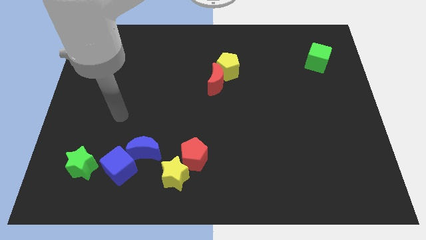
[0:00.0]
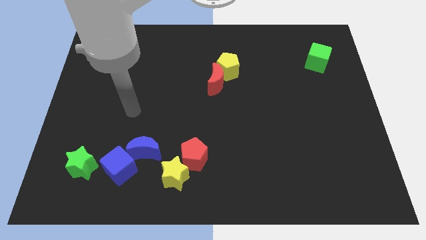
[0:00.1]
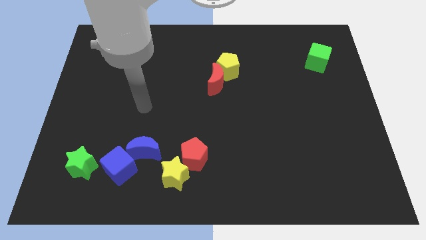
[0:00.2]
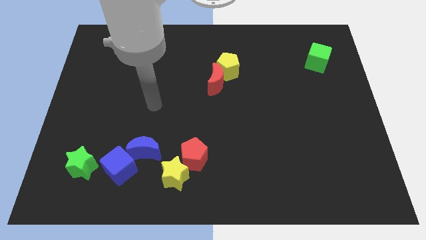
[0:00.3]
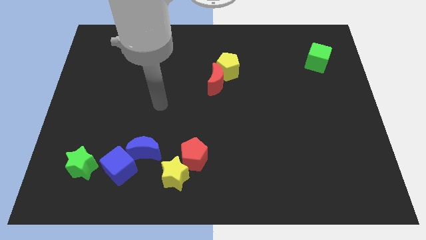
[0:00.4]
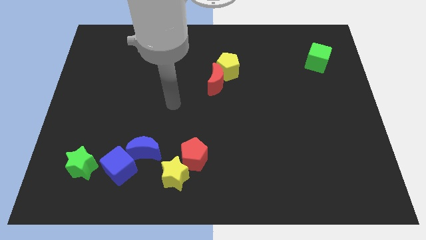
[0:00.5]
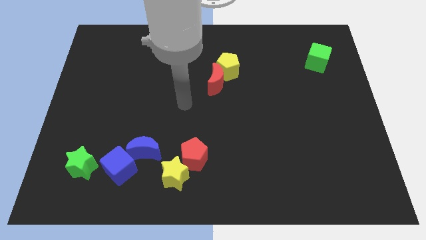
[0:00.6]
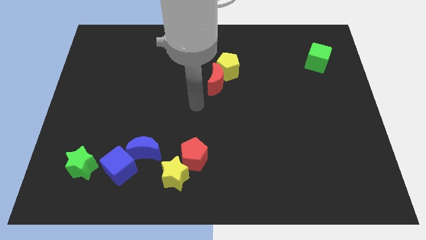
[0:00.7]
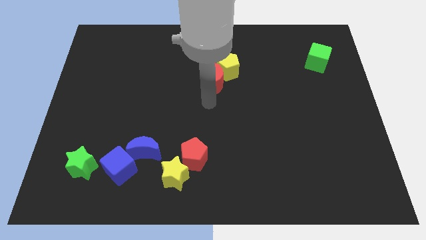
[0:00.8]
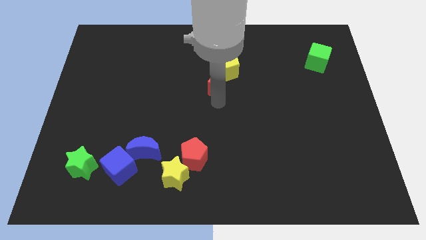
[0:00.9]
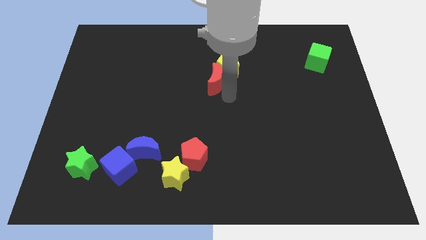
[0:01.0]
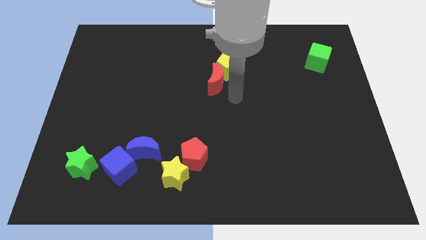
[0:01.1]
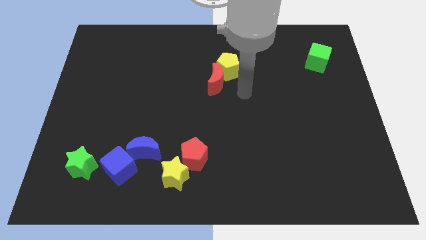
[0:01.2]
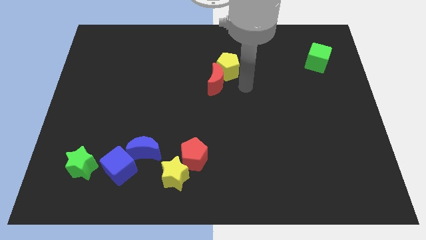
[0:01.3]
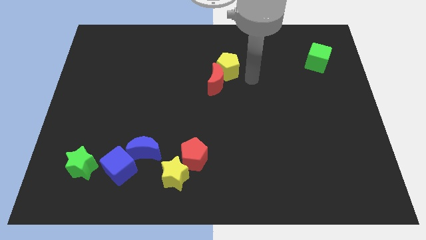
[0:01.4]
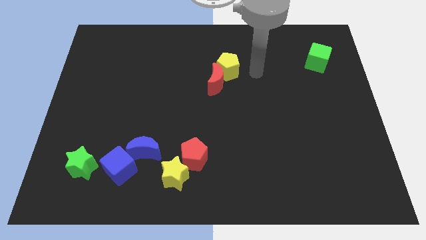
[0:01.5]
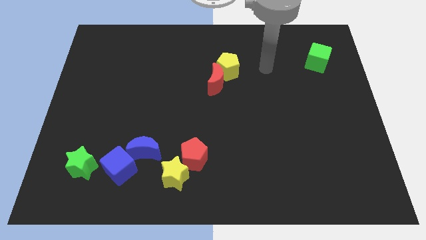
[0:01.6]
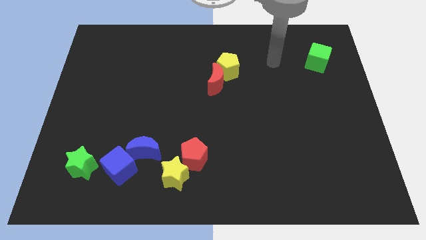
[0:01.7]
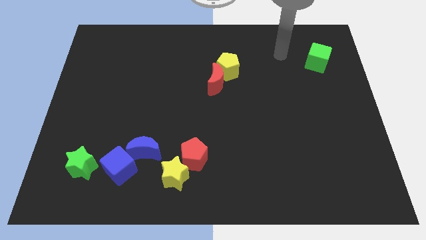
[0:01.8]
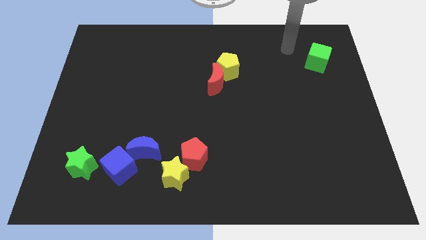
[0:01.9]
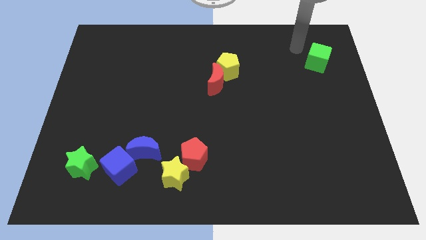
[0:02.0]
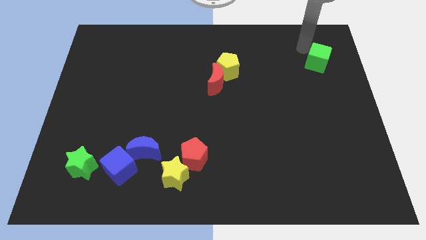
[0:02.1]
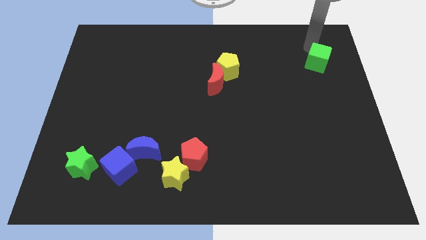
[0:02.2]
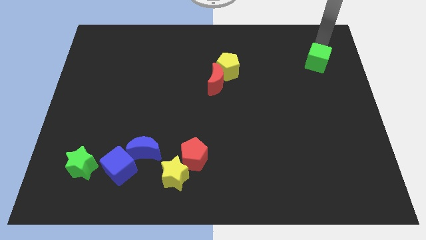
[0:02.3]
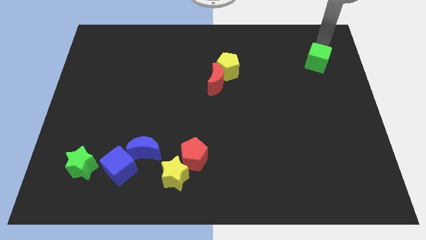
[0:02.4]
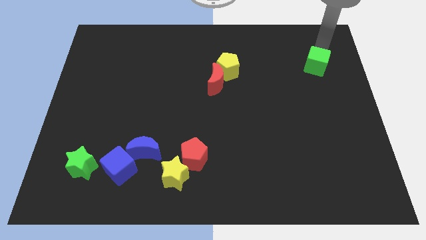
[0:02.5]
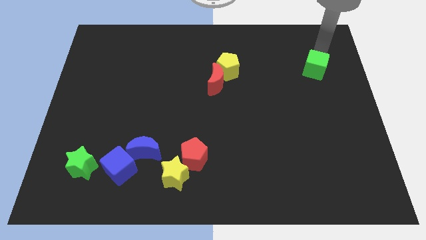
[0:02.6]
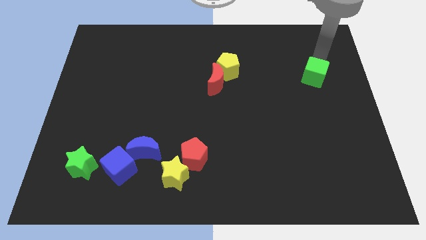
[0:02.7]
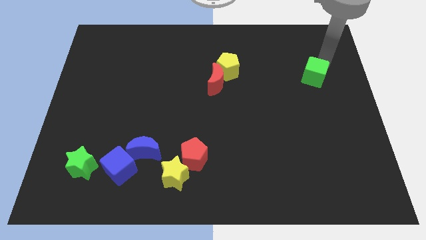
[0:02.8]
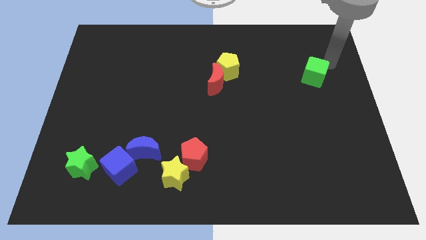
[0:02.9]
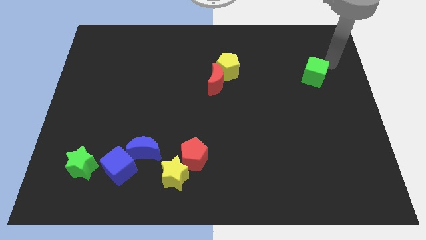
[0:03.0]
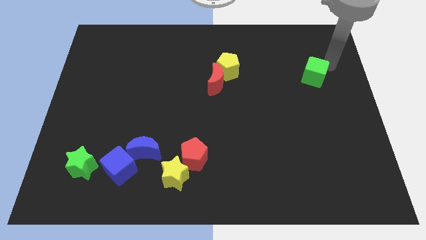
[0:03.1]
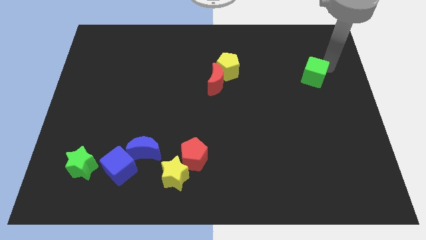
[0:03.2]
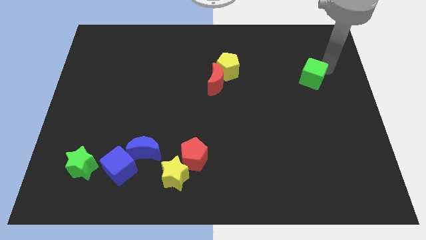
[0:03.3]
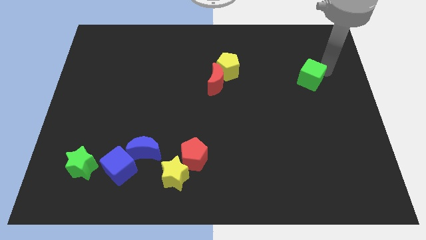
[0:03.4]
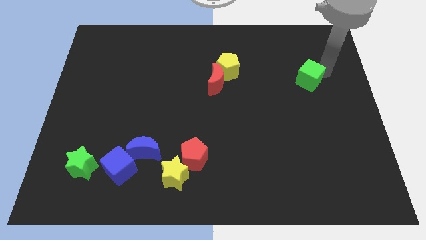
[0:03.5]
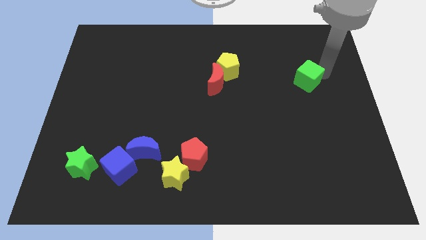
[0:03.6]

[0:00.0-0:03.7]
slightly push the green cube down and then to the left

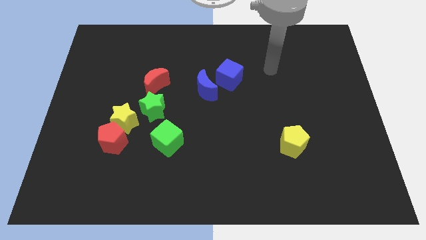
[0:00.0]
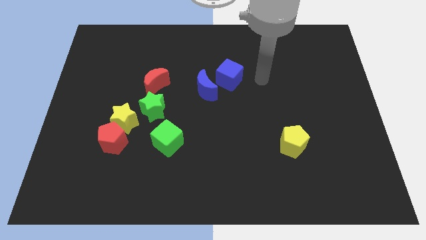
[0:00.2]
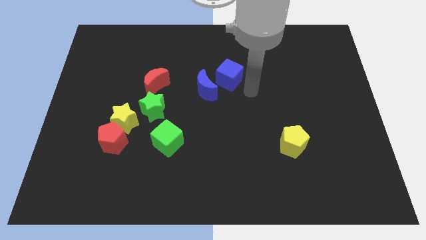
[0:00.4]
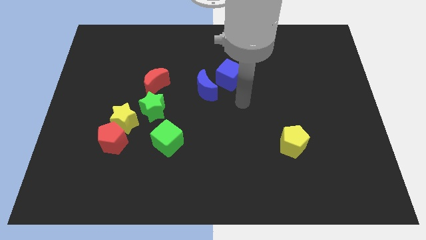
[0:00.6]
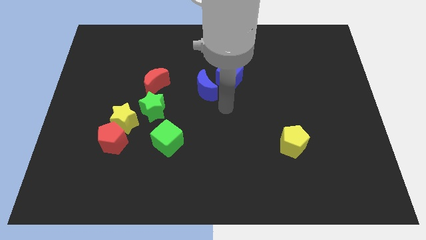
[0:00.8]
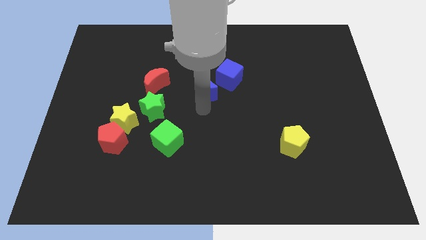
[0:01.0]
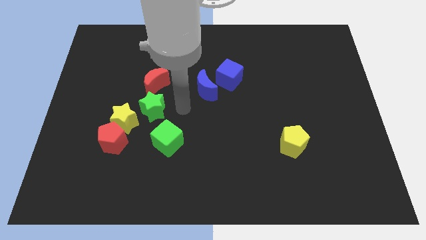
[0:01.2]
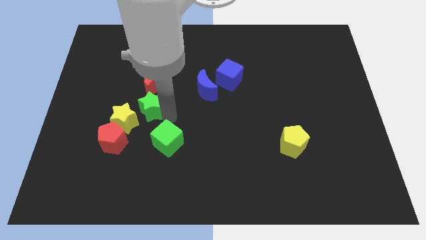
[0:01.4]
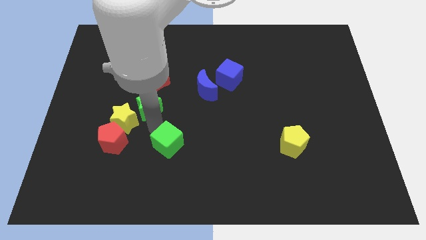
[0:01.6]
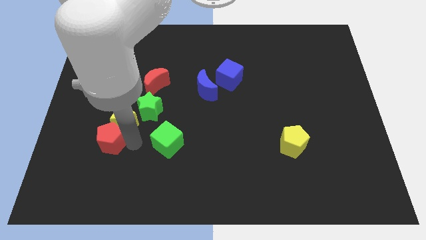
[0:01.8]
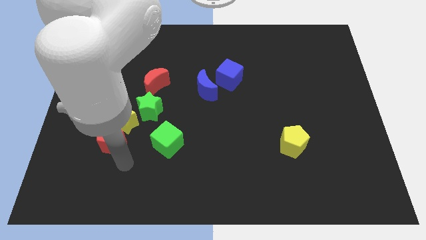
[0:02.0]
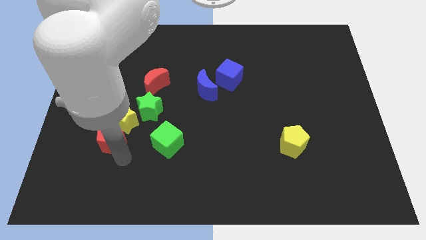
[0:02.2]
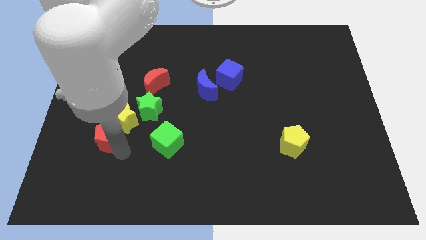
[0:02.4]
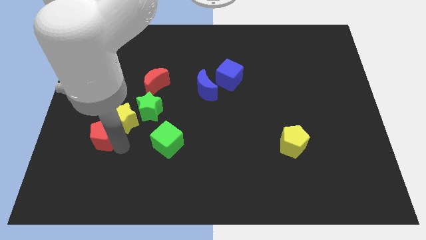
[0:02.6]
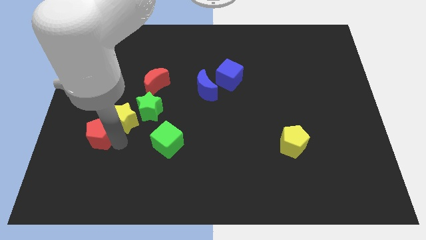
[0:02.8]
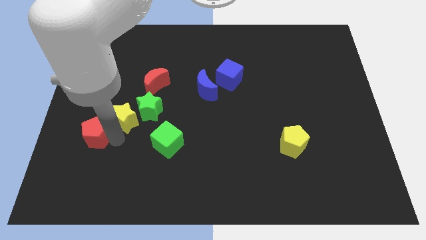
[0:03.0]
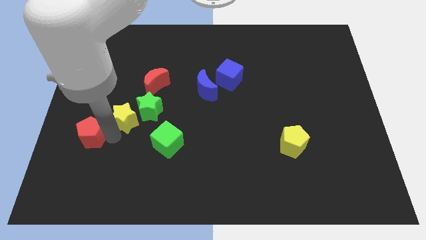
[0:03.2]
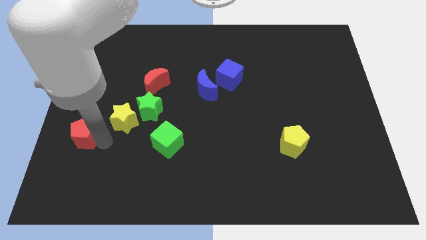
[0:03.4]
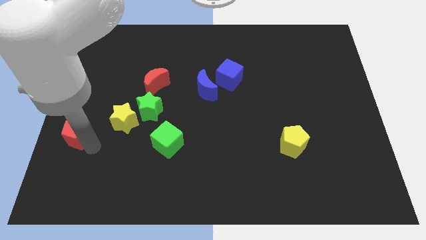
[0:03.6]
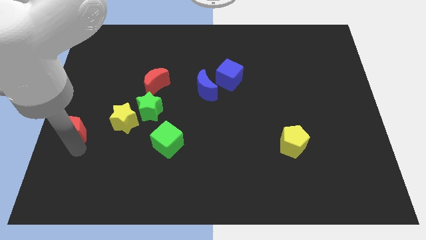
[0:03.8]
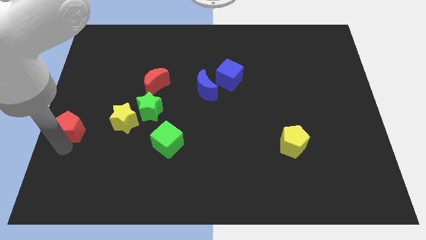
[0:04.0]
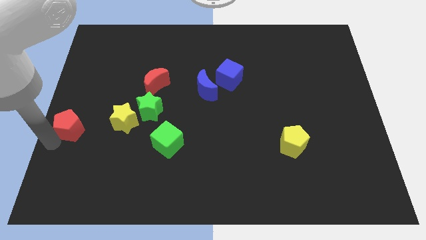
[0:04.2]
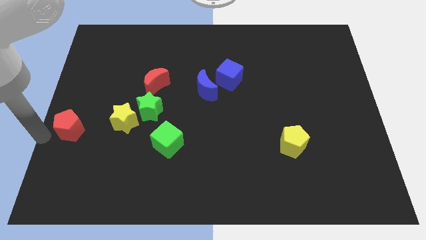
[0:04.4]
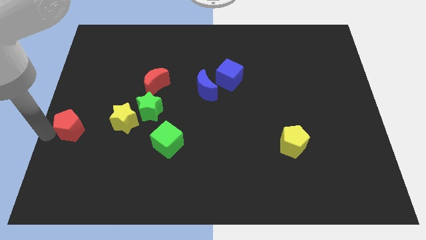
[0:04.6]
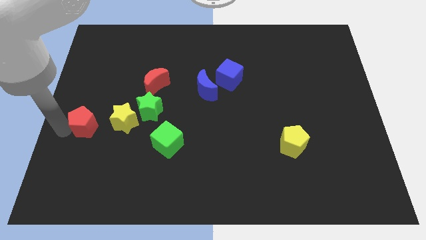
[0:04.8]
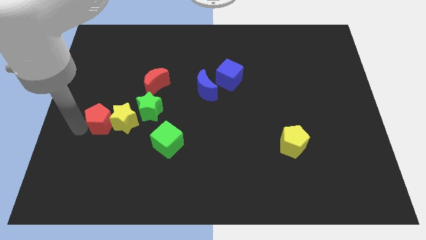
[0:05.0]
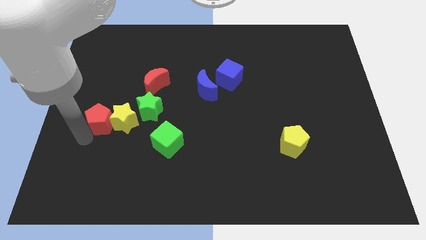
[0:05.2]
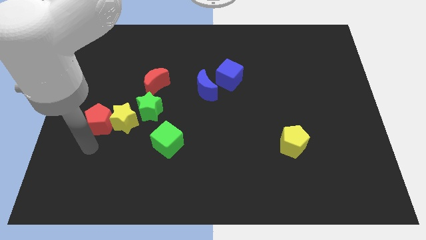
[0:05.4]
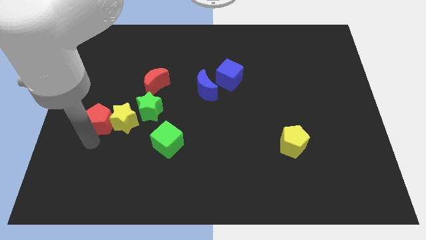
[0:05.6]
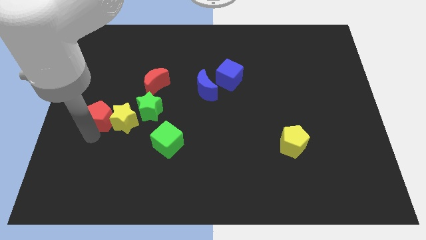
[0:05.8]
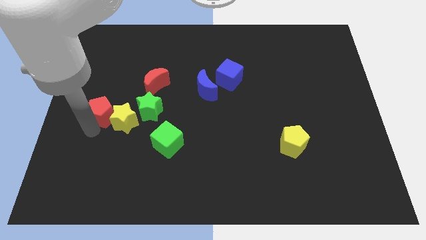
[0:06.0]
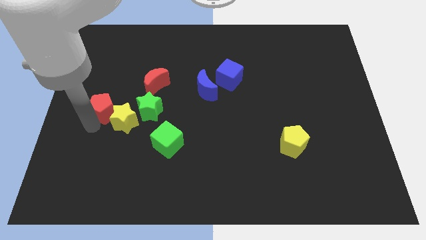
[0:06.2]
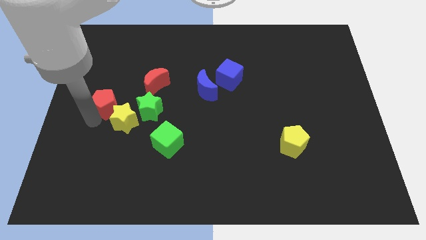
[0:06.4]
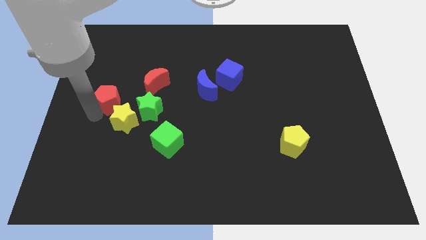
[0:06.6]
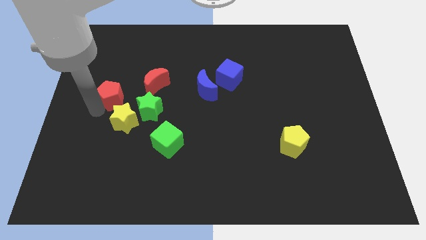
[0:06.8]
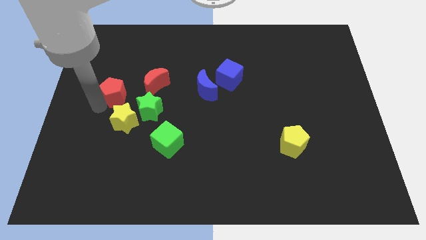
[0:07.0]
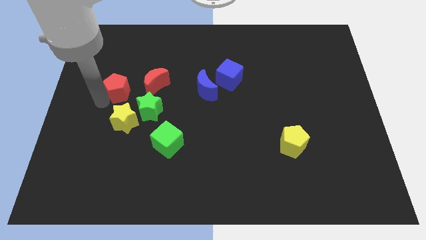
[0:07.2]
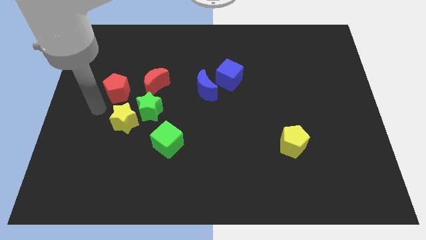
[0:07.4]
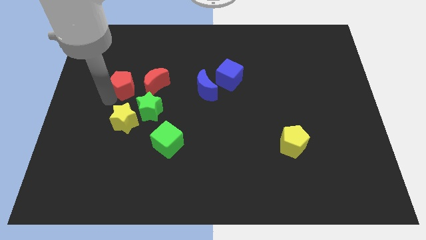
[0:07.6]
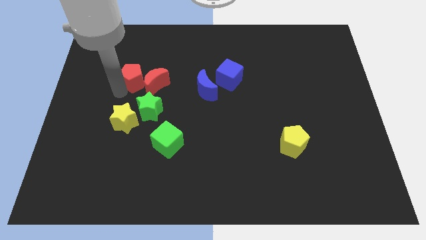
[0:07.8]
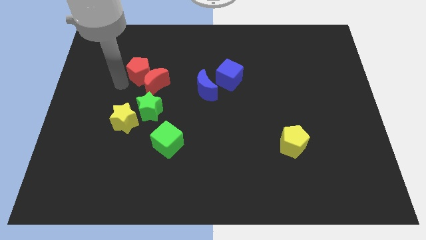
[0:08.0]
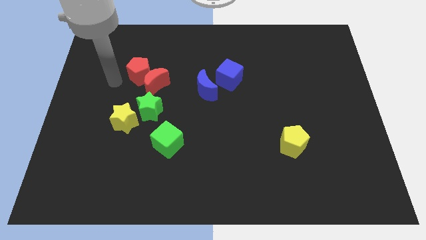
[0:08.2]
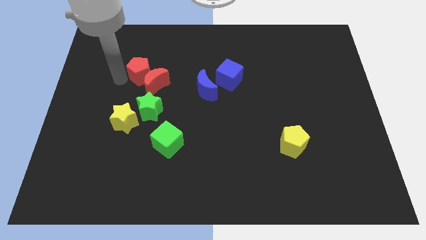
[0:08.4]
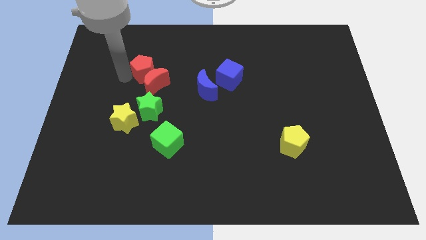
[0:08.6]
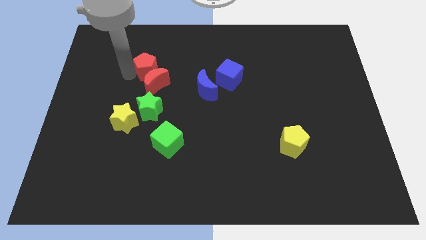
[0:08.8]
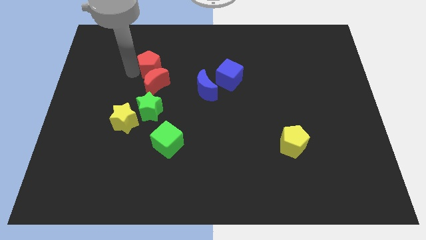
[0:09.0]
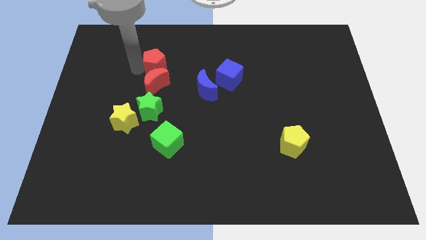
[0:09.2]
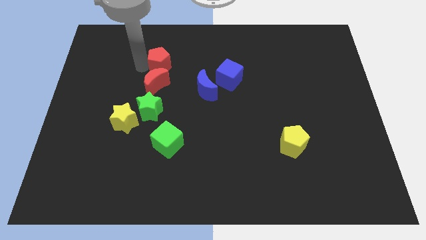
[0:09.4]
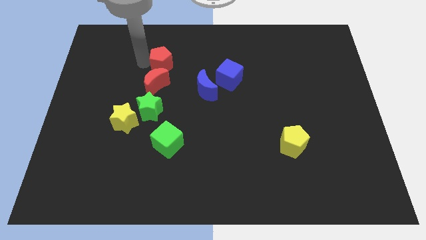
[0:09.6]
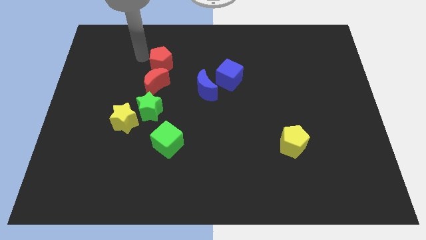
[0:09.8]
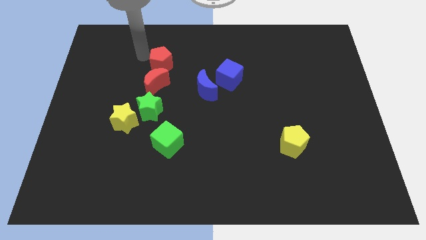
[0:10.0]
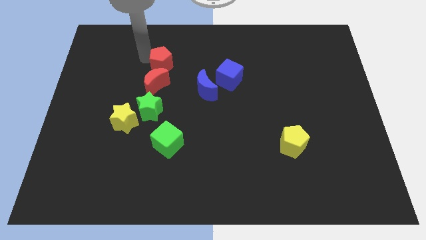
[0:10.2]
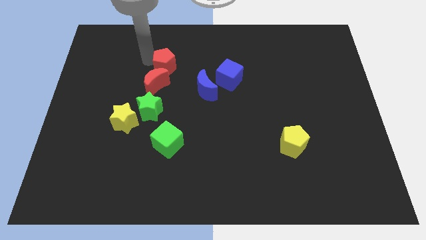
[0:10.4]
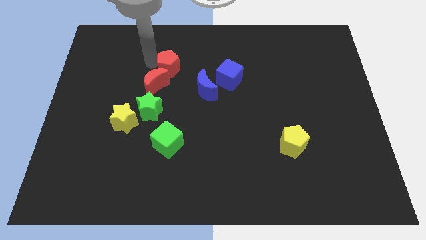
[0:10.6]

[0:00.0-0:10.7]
push the red pentagon upwards and to the right diagonally
